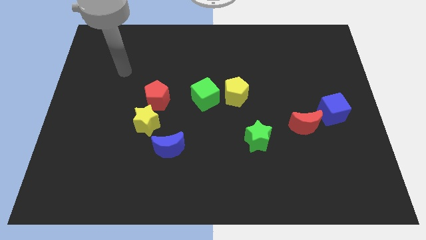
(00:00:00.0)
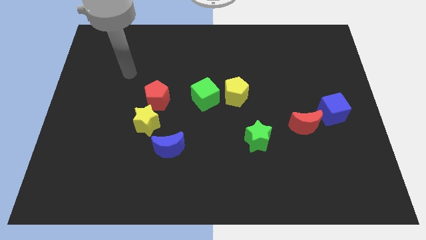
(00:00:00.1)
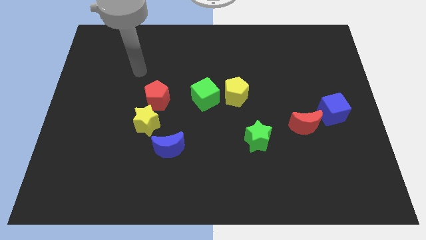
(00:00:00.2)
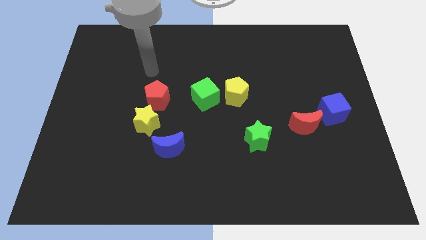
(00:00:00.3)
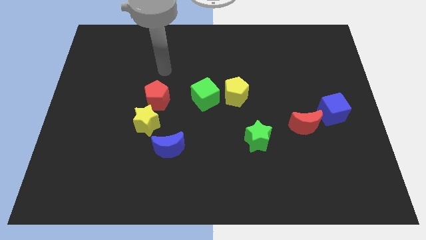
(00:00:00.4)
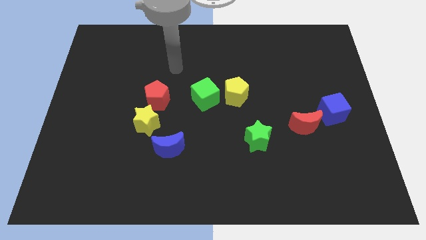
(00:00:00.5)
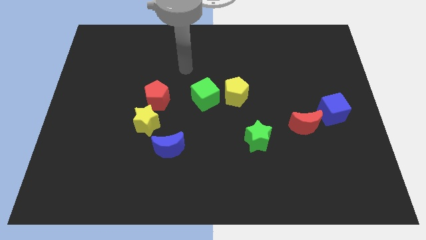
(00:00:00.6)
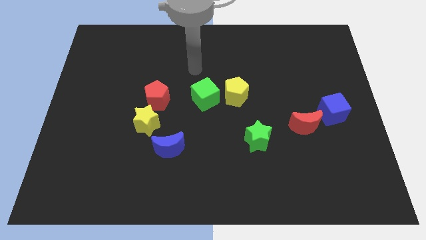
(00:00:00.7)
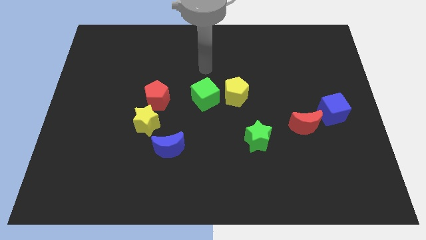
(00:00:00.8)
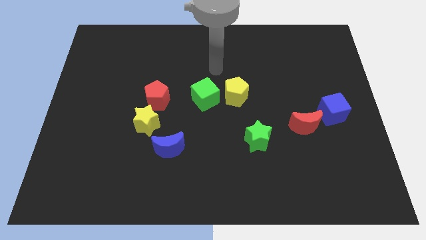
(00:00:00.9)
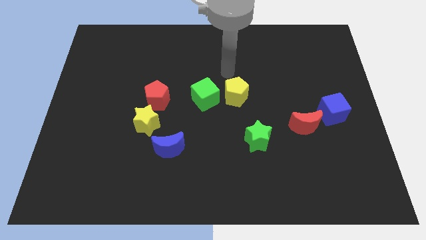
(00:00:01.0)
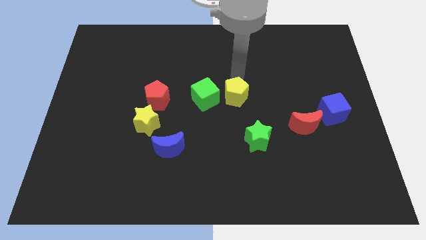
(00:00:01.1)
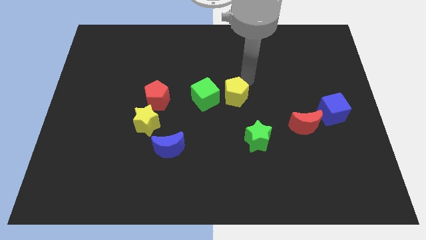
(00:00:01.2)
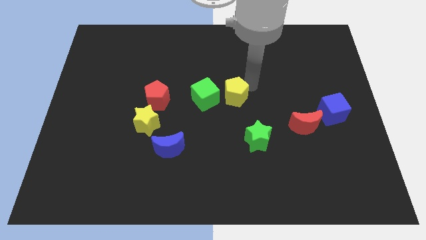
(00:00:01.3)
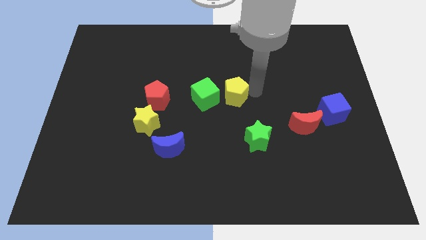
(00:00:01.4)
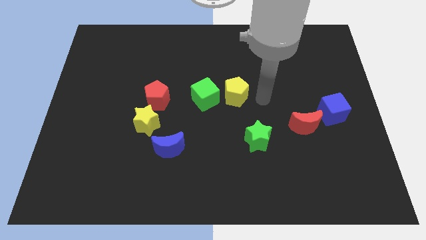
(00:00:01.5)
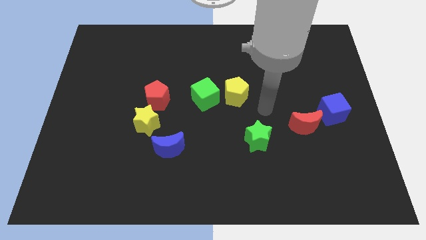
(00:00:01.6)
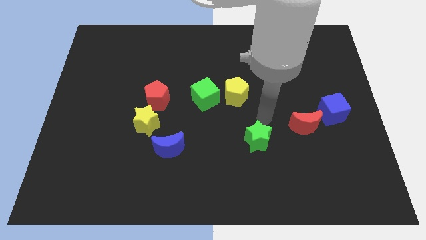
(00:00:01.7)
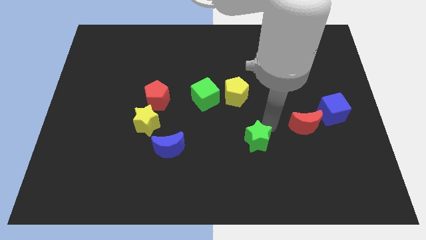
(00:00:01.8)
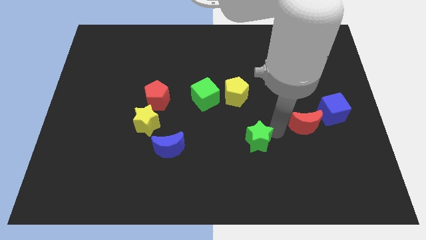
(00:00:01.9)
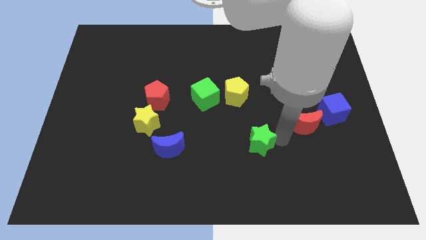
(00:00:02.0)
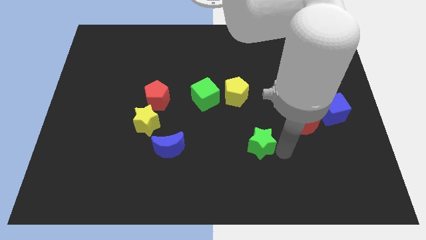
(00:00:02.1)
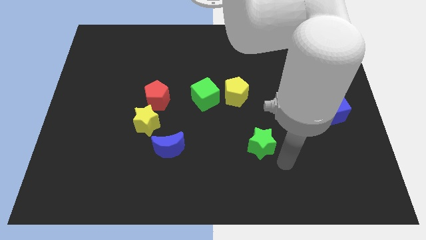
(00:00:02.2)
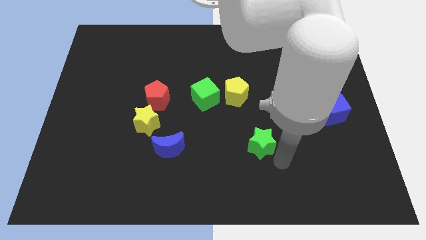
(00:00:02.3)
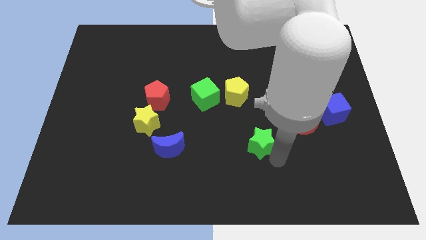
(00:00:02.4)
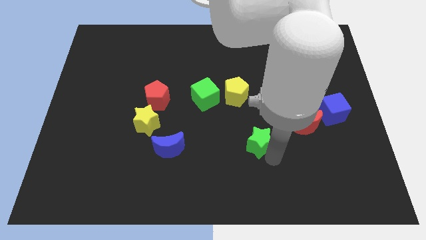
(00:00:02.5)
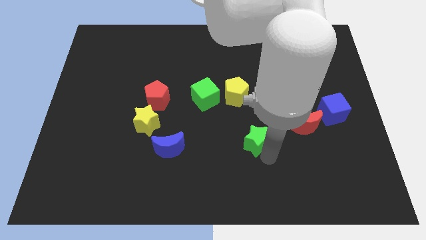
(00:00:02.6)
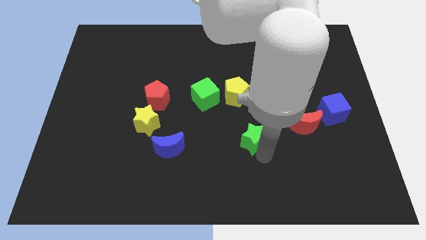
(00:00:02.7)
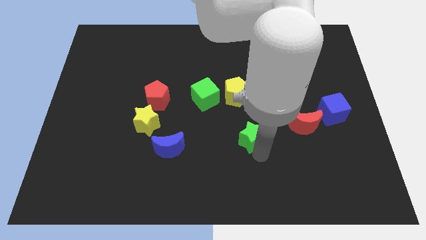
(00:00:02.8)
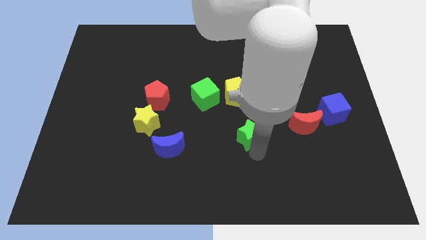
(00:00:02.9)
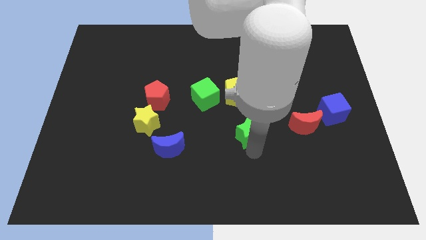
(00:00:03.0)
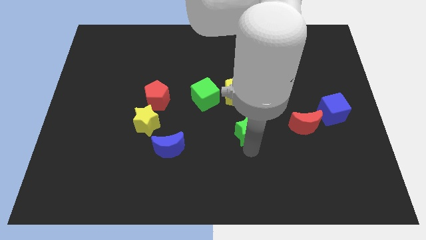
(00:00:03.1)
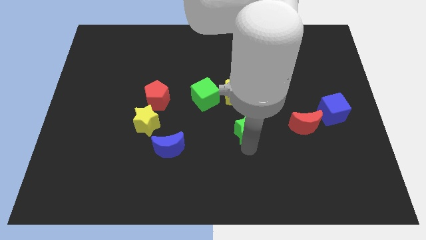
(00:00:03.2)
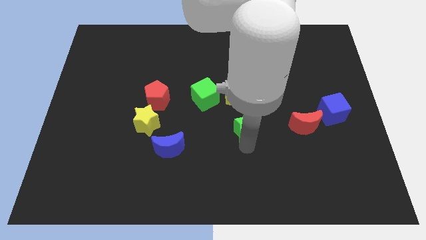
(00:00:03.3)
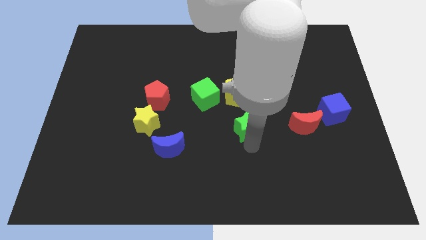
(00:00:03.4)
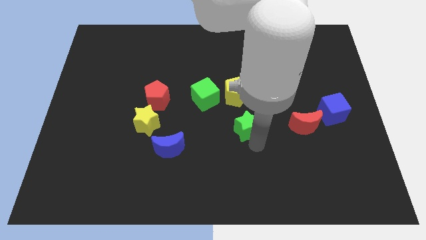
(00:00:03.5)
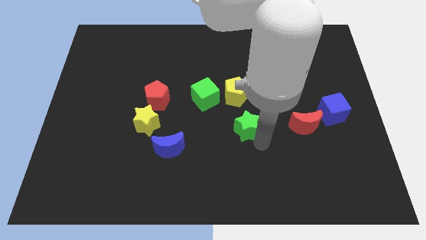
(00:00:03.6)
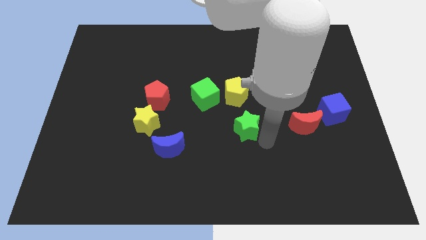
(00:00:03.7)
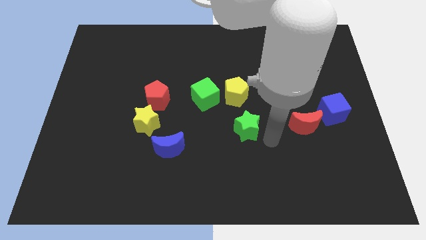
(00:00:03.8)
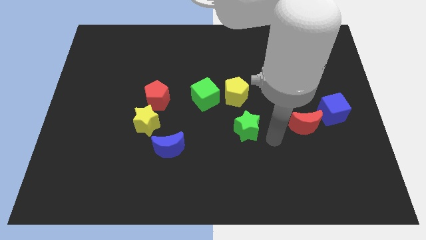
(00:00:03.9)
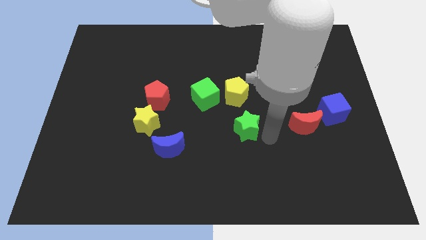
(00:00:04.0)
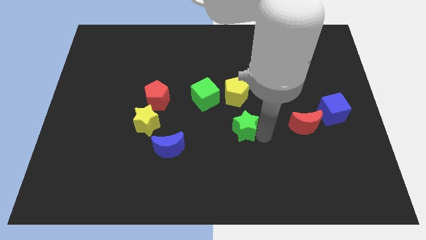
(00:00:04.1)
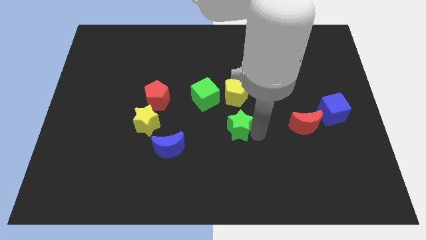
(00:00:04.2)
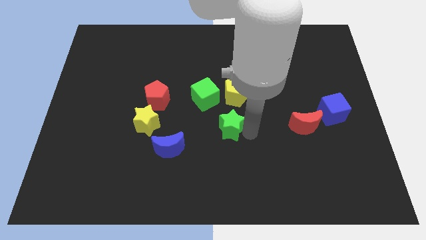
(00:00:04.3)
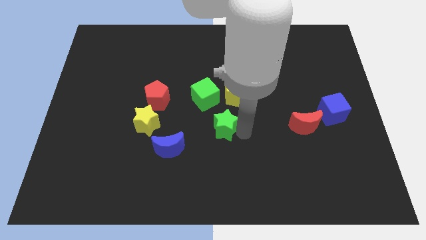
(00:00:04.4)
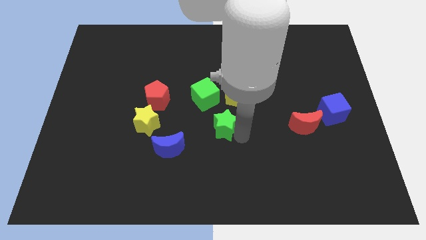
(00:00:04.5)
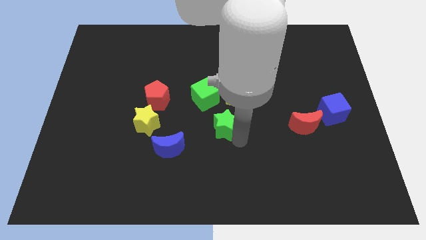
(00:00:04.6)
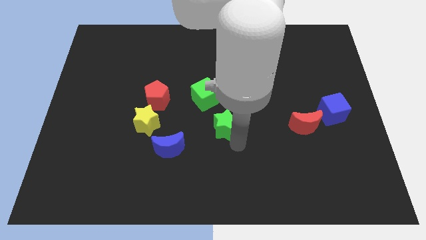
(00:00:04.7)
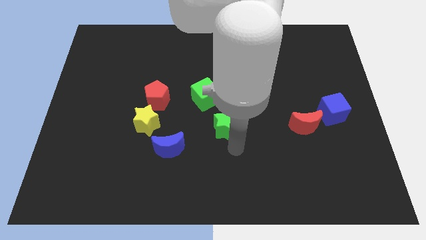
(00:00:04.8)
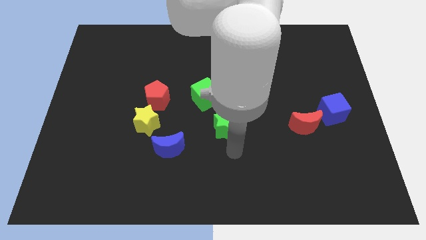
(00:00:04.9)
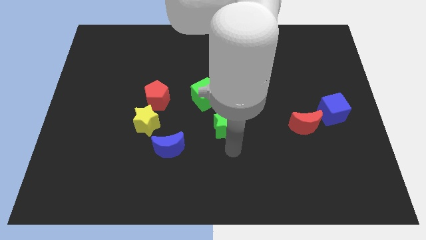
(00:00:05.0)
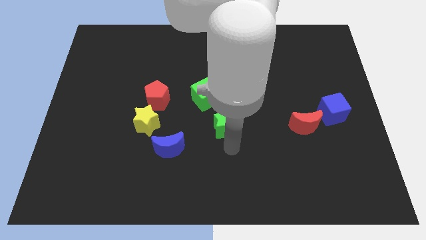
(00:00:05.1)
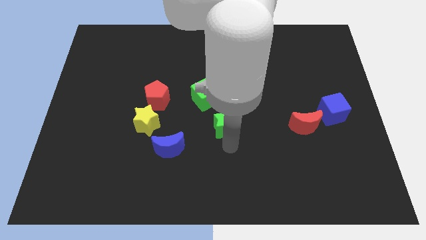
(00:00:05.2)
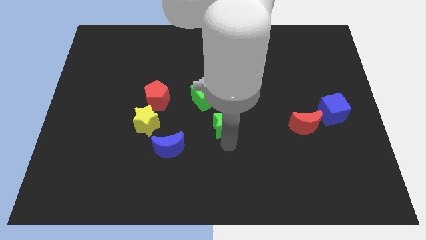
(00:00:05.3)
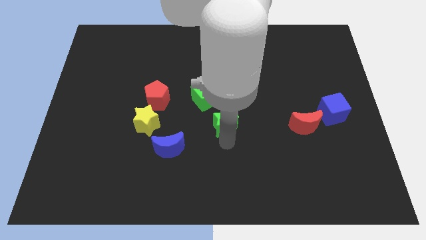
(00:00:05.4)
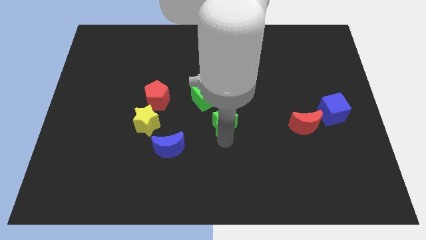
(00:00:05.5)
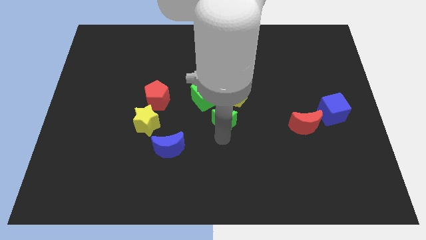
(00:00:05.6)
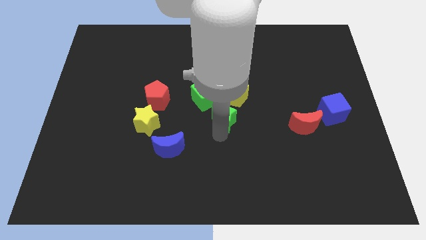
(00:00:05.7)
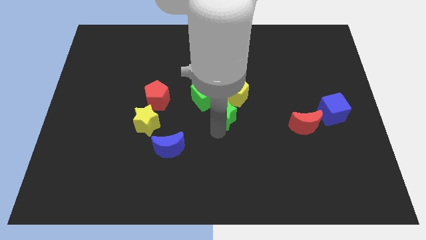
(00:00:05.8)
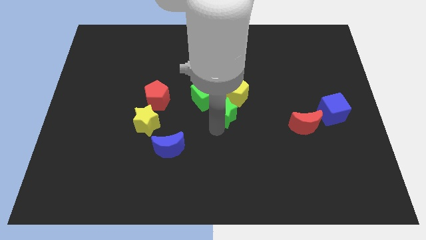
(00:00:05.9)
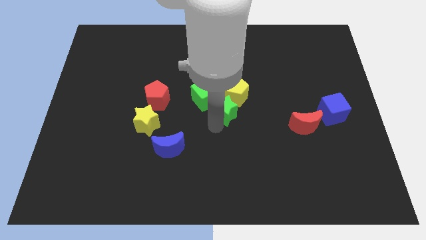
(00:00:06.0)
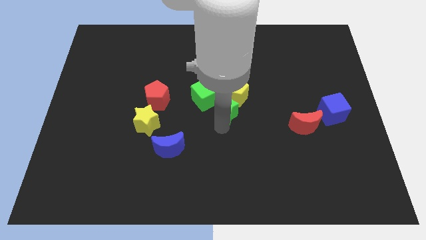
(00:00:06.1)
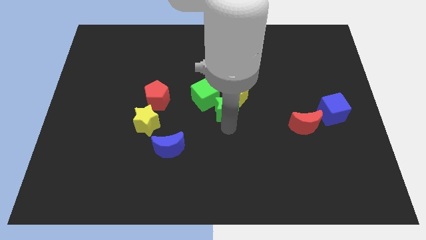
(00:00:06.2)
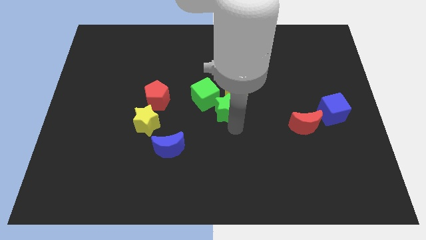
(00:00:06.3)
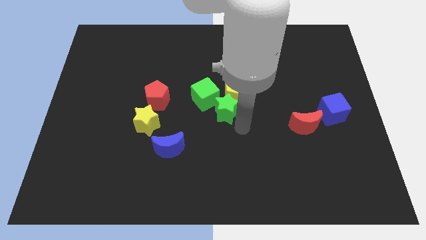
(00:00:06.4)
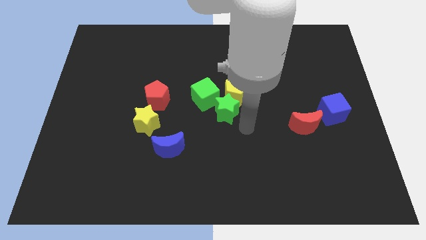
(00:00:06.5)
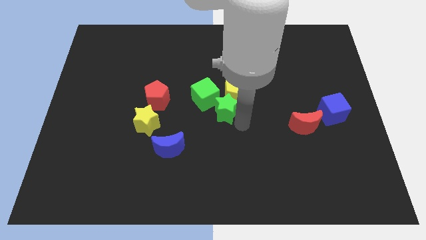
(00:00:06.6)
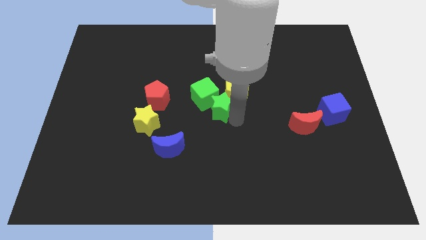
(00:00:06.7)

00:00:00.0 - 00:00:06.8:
put the green star close to the green cube
